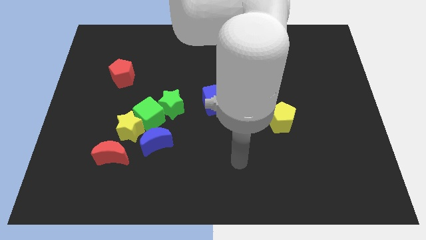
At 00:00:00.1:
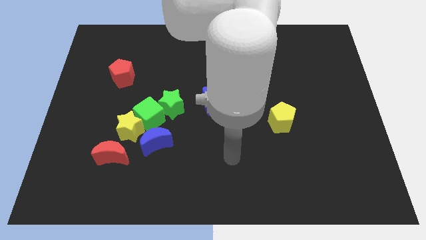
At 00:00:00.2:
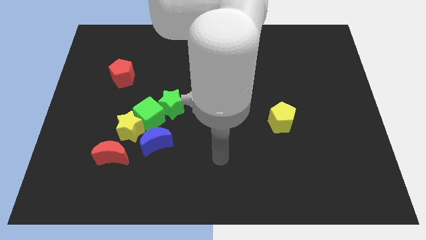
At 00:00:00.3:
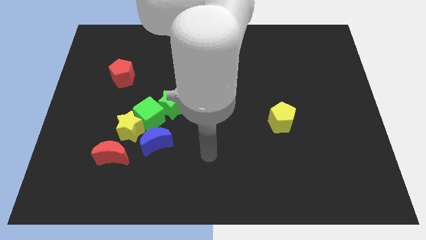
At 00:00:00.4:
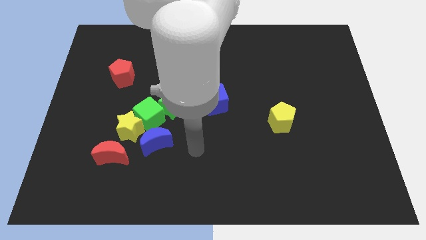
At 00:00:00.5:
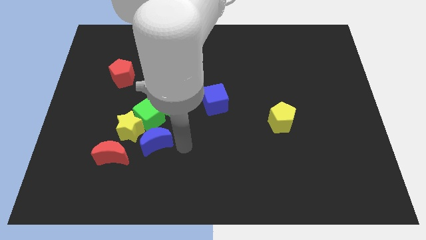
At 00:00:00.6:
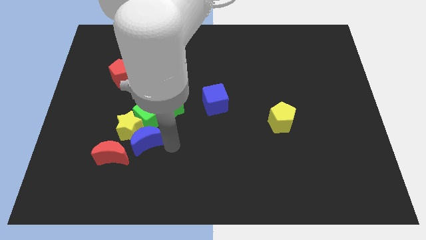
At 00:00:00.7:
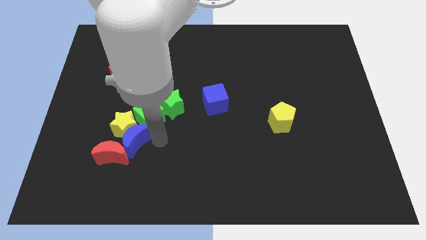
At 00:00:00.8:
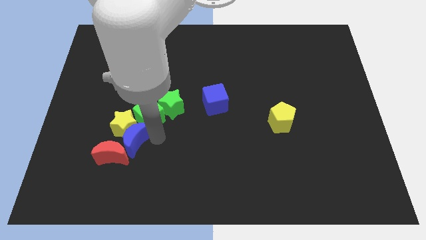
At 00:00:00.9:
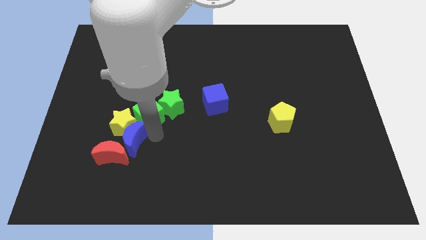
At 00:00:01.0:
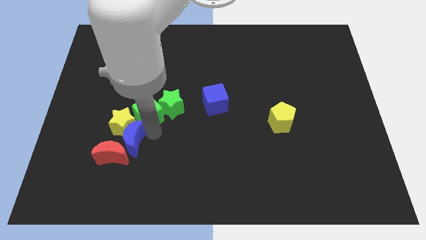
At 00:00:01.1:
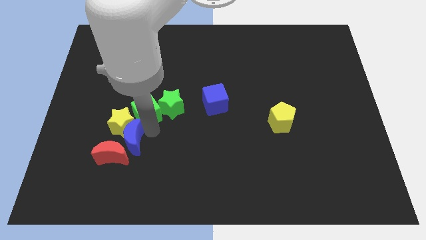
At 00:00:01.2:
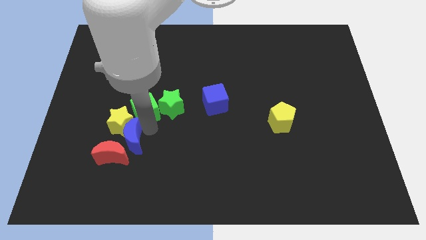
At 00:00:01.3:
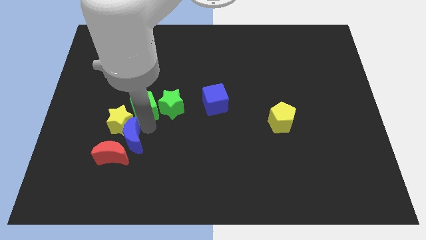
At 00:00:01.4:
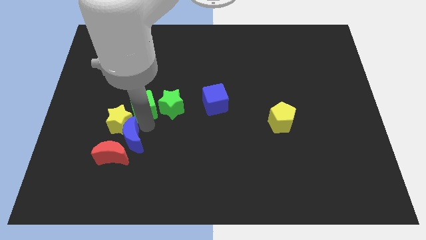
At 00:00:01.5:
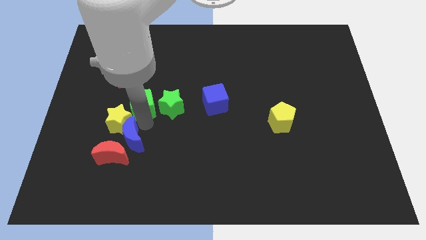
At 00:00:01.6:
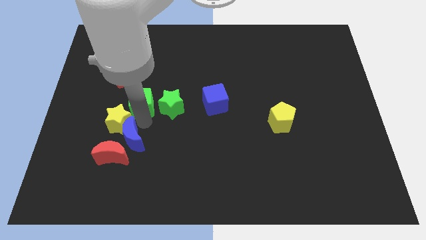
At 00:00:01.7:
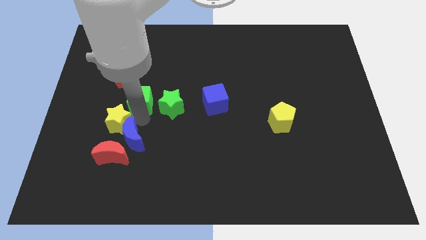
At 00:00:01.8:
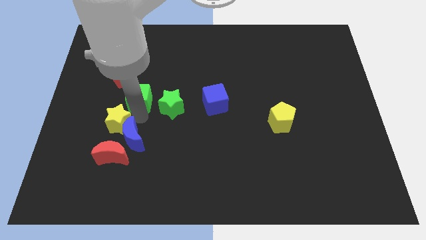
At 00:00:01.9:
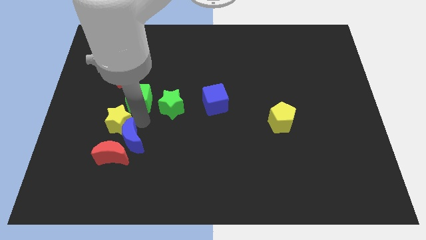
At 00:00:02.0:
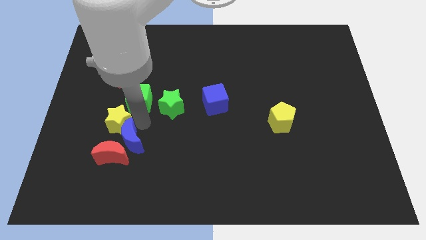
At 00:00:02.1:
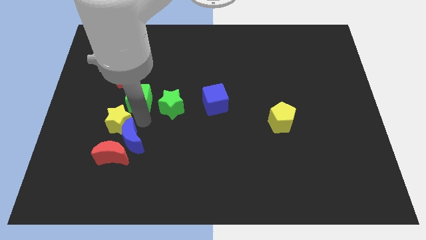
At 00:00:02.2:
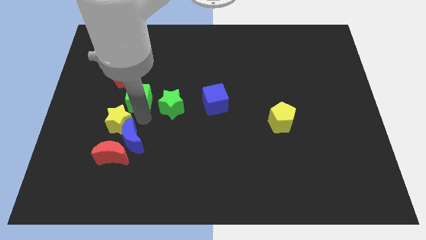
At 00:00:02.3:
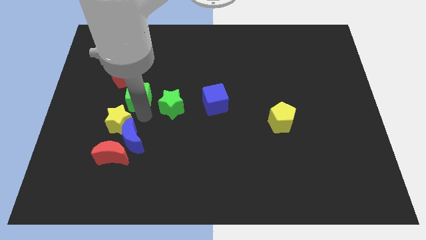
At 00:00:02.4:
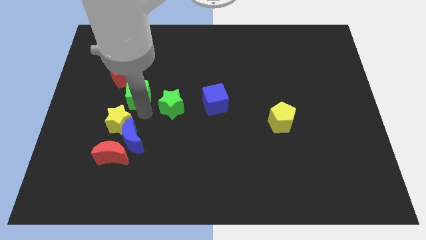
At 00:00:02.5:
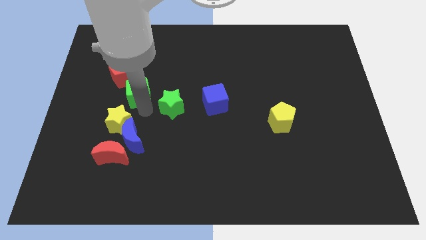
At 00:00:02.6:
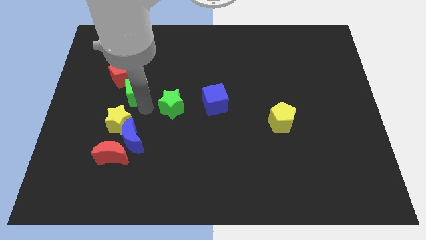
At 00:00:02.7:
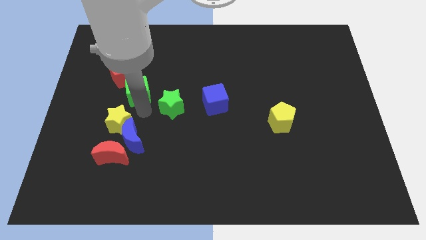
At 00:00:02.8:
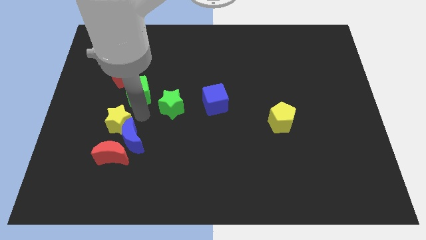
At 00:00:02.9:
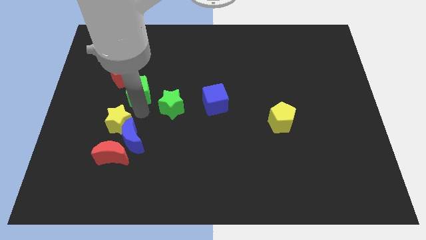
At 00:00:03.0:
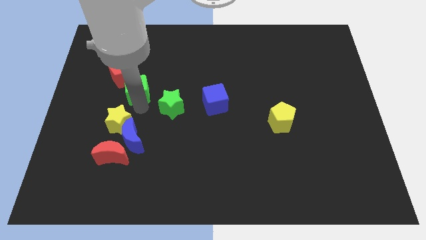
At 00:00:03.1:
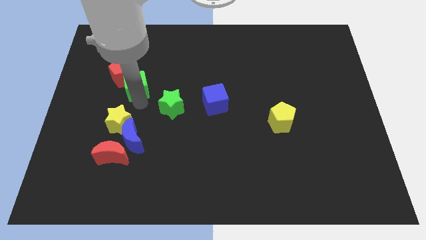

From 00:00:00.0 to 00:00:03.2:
move the green cube away from the yellow star, green star, and blue moon

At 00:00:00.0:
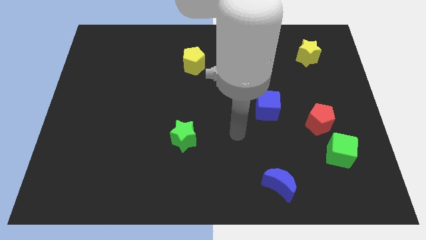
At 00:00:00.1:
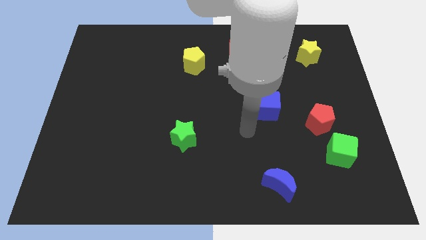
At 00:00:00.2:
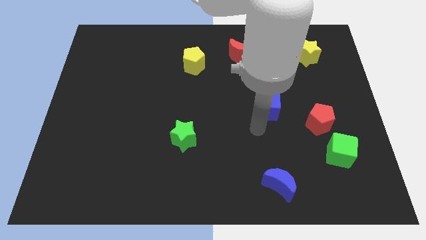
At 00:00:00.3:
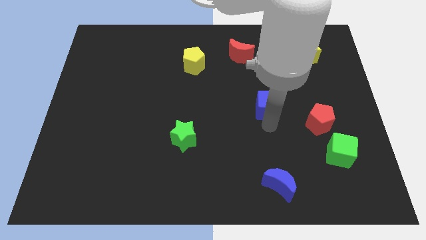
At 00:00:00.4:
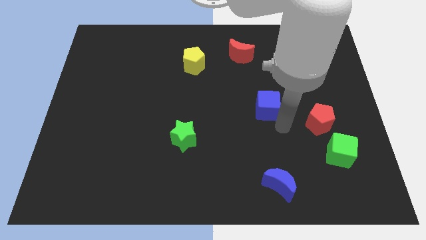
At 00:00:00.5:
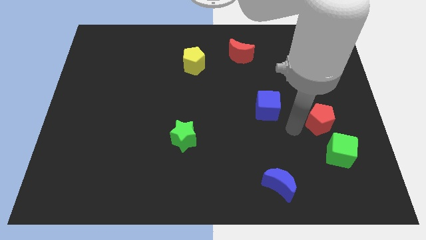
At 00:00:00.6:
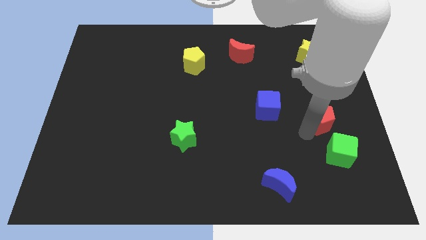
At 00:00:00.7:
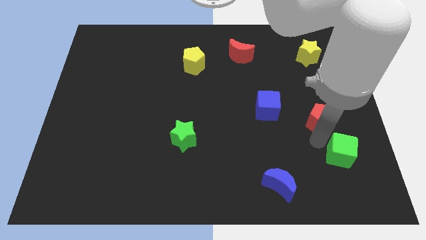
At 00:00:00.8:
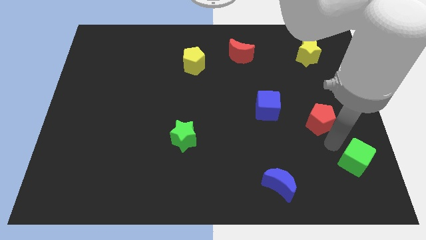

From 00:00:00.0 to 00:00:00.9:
pull the red pentagon apart from the green cube

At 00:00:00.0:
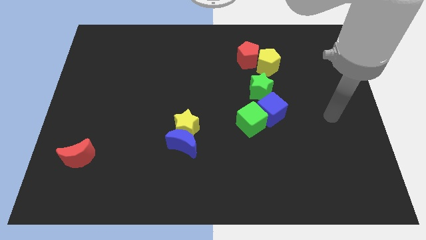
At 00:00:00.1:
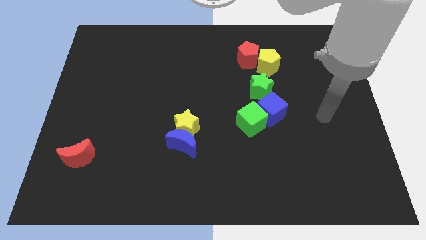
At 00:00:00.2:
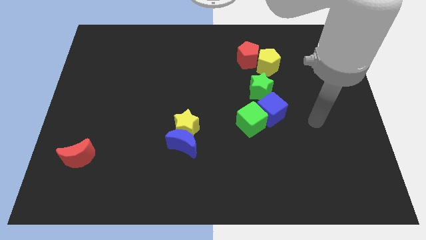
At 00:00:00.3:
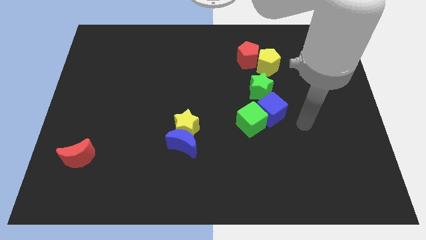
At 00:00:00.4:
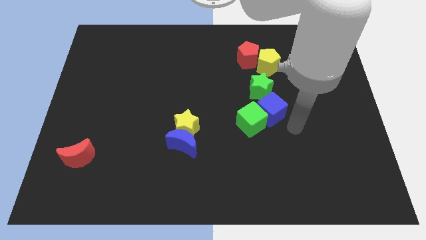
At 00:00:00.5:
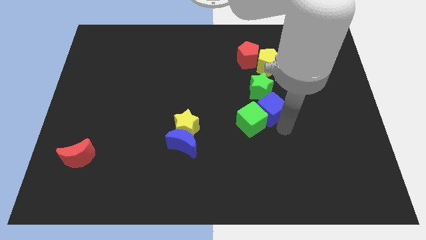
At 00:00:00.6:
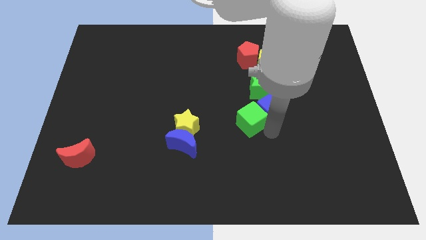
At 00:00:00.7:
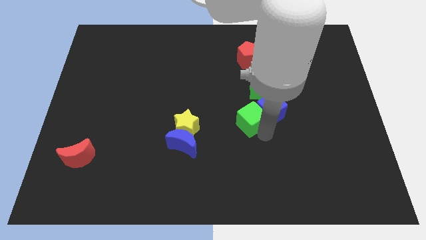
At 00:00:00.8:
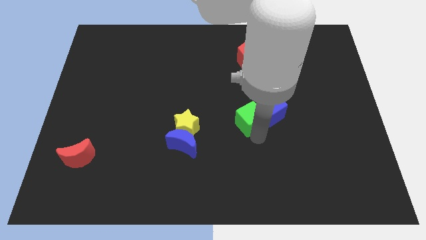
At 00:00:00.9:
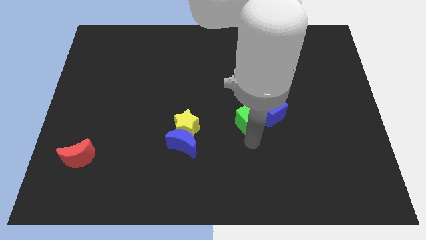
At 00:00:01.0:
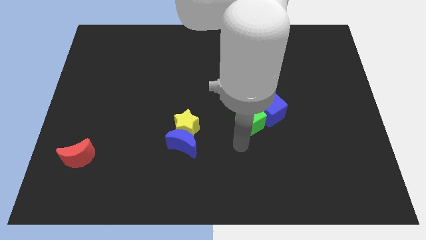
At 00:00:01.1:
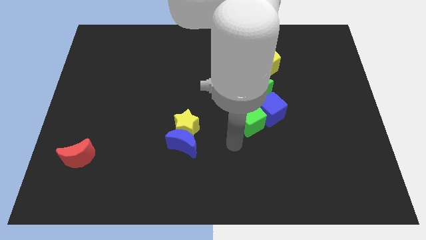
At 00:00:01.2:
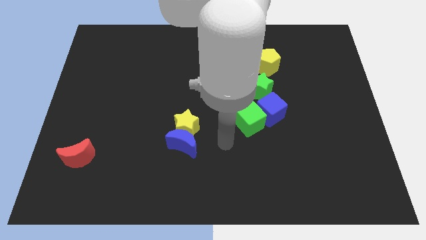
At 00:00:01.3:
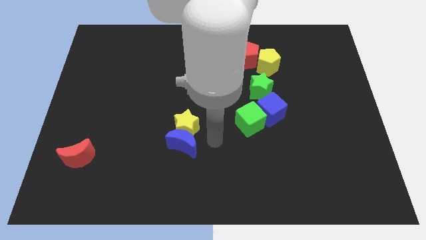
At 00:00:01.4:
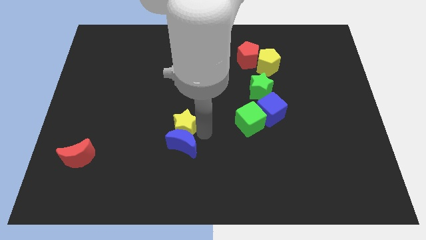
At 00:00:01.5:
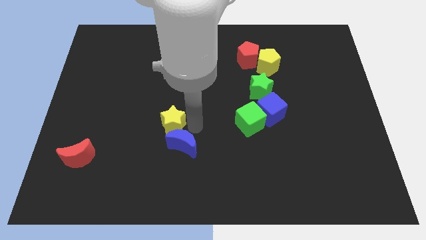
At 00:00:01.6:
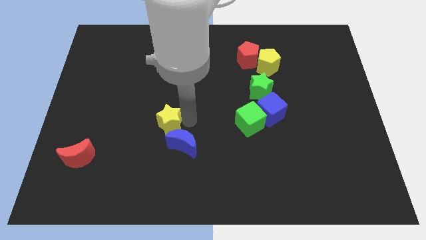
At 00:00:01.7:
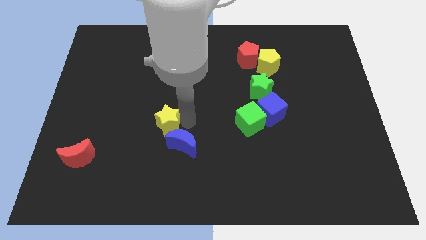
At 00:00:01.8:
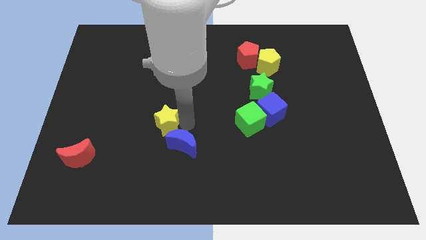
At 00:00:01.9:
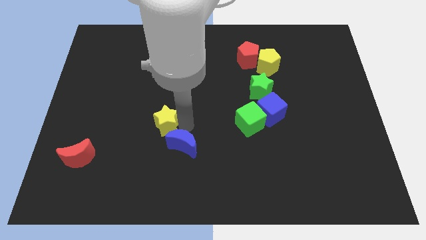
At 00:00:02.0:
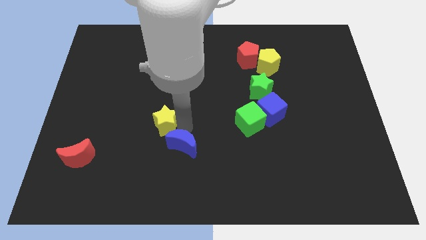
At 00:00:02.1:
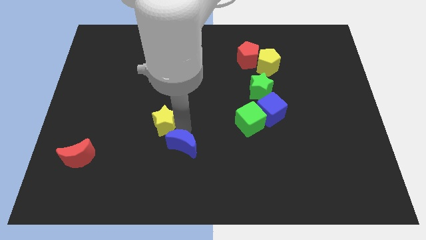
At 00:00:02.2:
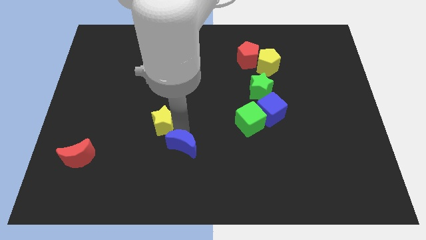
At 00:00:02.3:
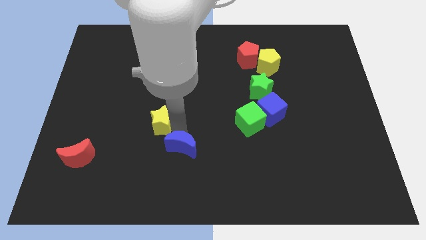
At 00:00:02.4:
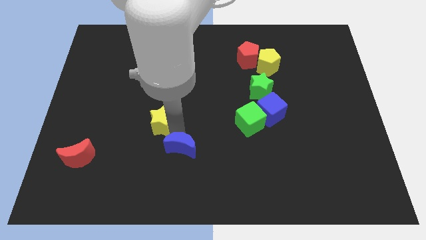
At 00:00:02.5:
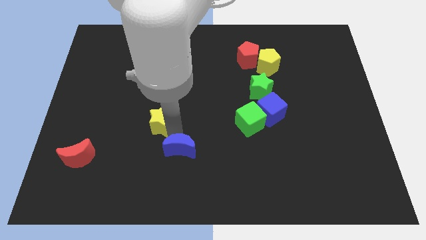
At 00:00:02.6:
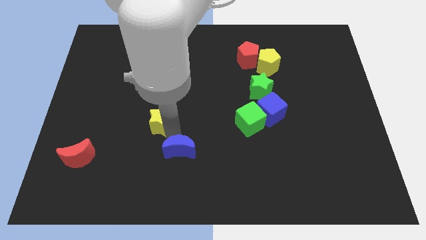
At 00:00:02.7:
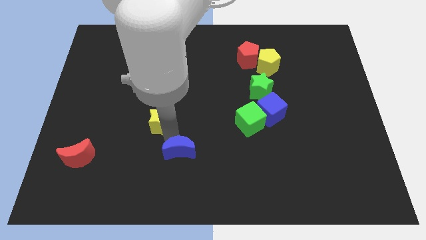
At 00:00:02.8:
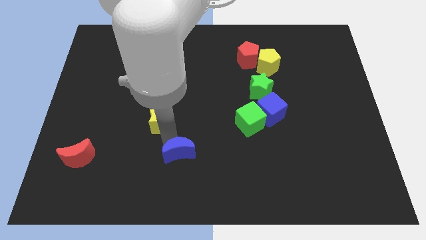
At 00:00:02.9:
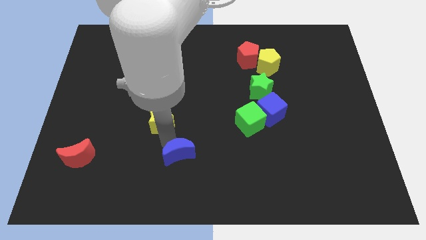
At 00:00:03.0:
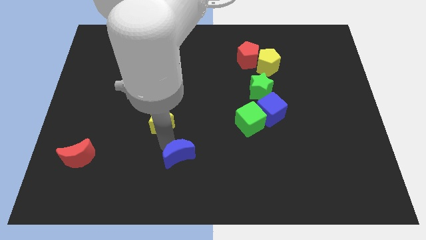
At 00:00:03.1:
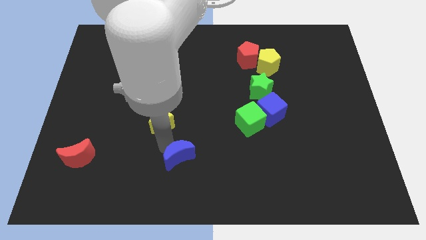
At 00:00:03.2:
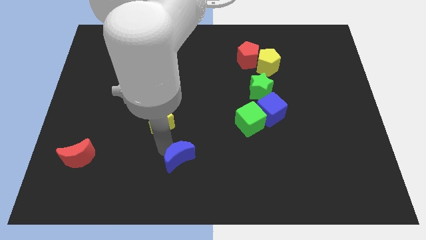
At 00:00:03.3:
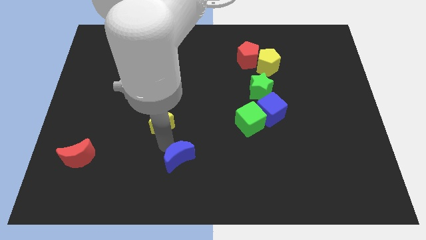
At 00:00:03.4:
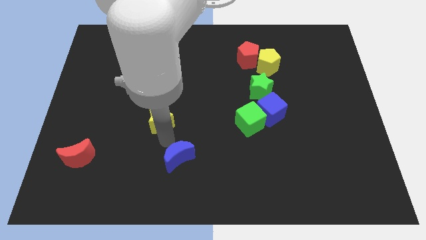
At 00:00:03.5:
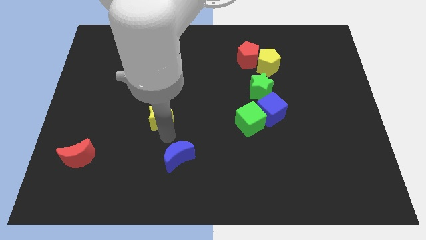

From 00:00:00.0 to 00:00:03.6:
separate the blue moon from the yellow star

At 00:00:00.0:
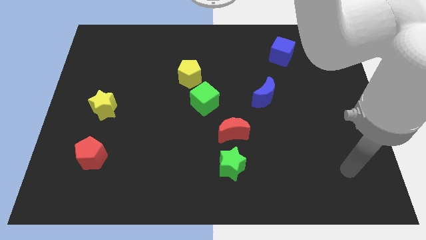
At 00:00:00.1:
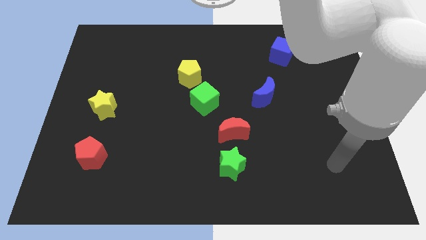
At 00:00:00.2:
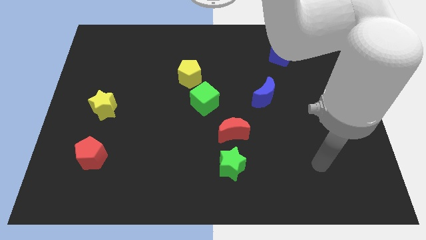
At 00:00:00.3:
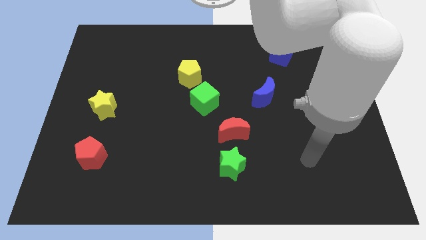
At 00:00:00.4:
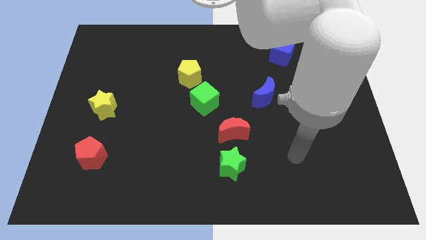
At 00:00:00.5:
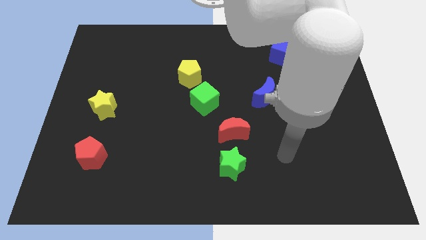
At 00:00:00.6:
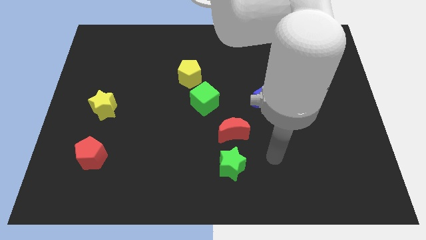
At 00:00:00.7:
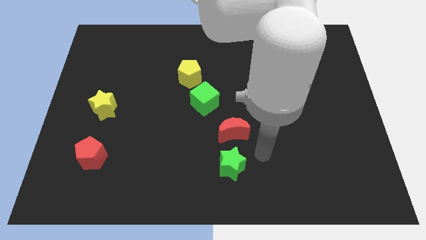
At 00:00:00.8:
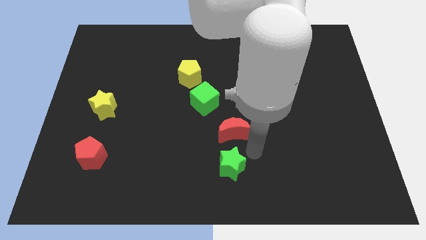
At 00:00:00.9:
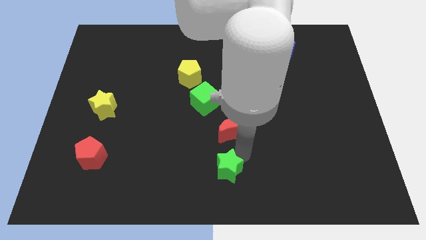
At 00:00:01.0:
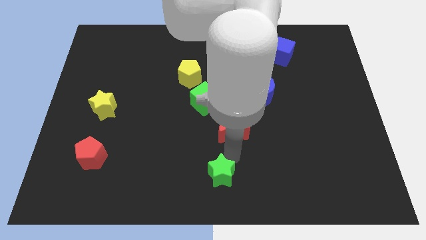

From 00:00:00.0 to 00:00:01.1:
separate the red moon from the green star

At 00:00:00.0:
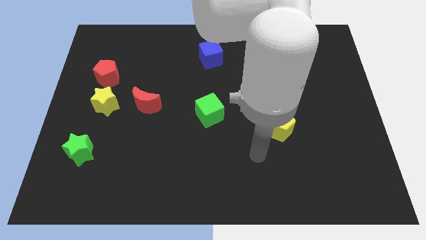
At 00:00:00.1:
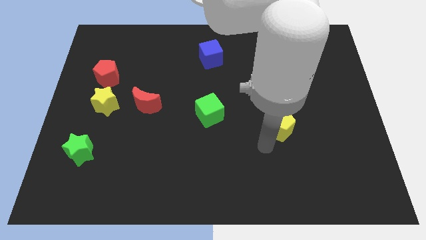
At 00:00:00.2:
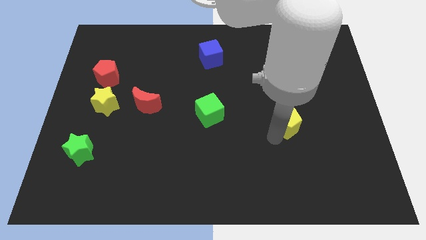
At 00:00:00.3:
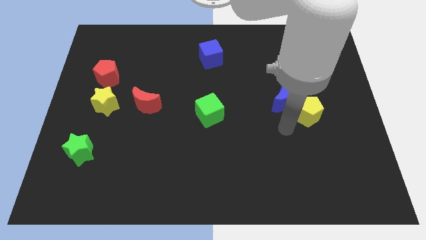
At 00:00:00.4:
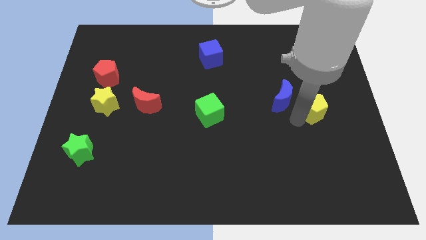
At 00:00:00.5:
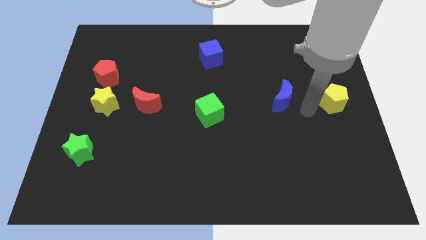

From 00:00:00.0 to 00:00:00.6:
pull the blue moon apart from the yellow pentagon
